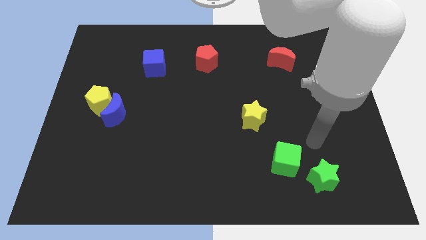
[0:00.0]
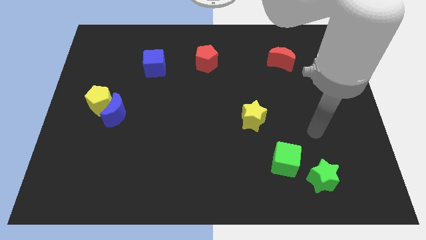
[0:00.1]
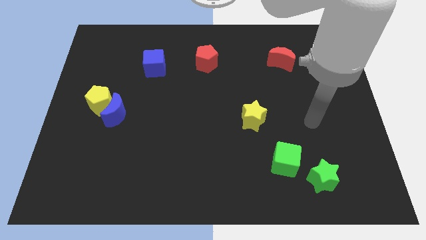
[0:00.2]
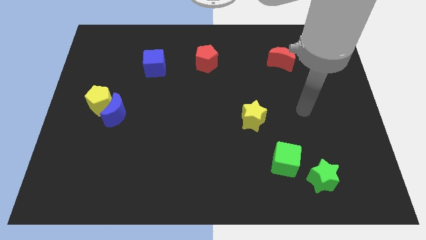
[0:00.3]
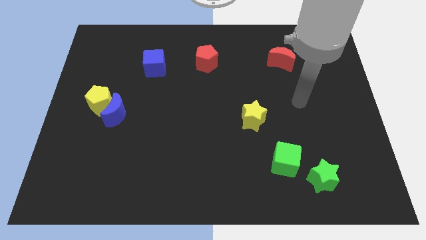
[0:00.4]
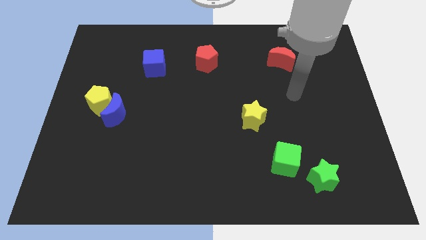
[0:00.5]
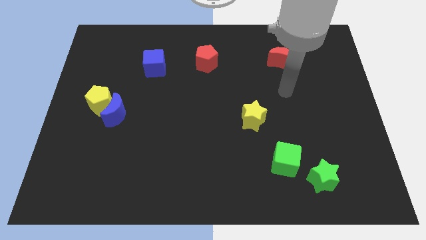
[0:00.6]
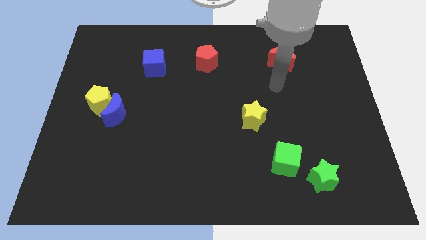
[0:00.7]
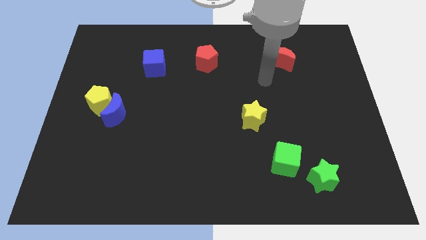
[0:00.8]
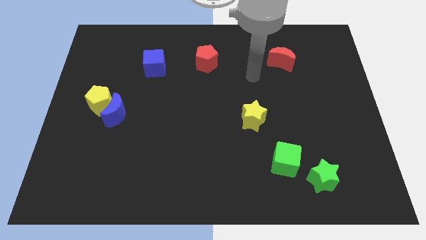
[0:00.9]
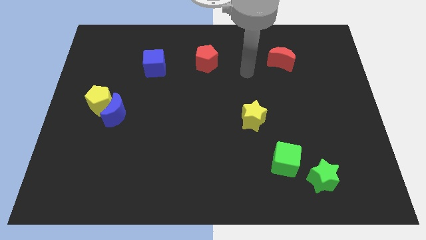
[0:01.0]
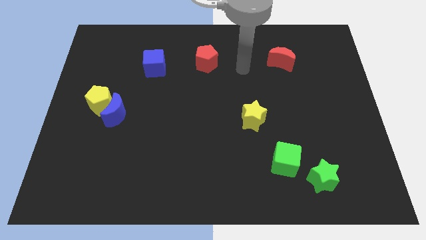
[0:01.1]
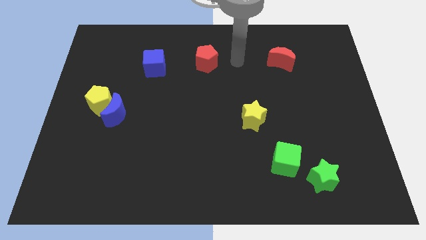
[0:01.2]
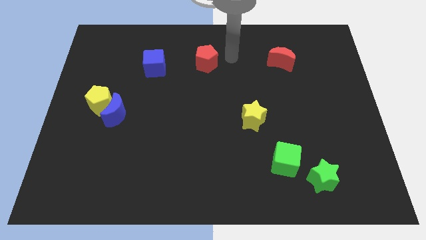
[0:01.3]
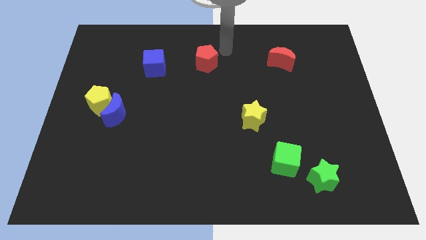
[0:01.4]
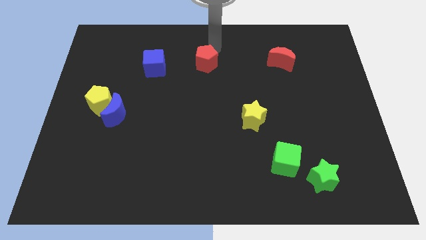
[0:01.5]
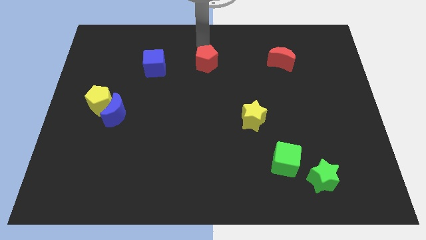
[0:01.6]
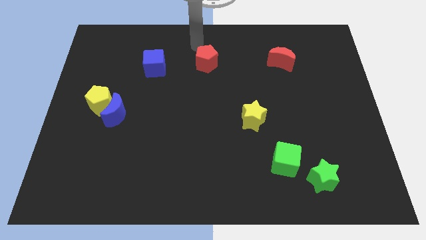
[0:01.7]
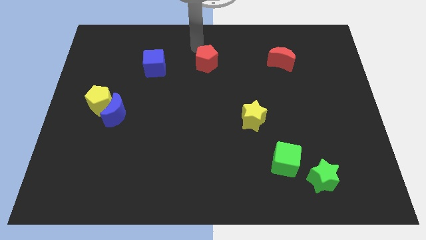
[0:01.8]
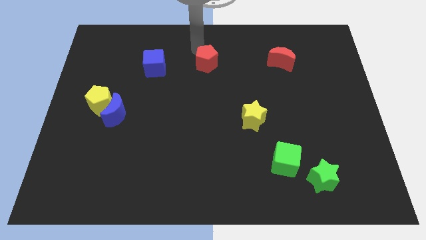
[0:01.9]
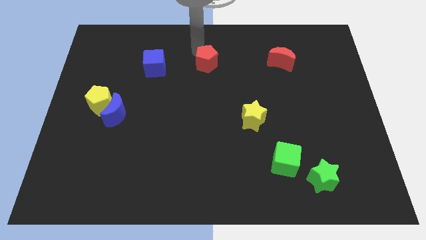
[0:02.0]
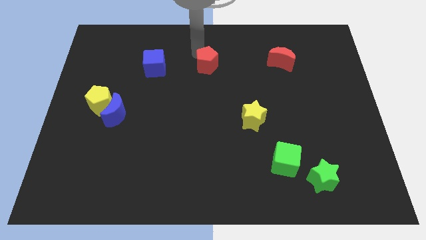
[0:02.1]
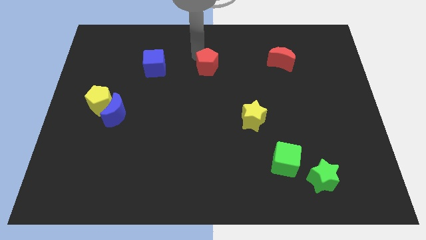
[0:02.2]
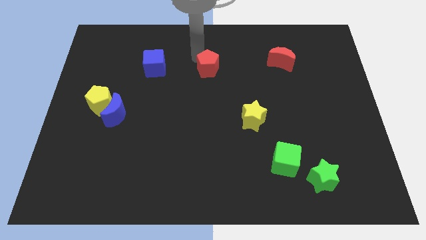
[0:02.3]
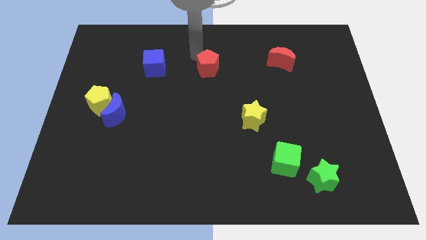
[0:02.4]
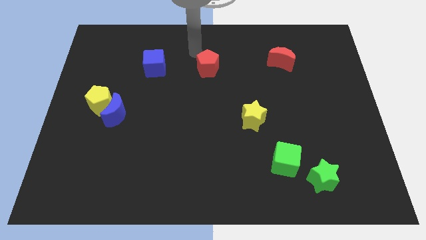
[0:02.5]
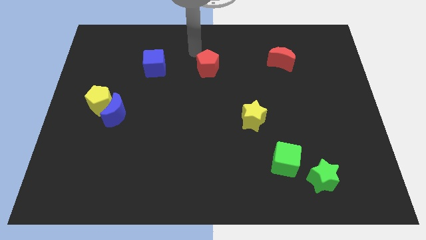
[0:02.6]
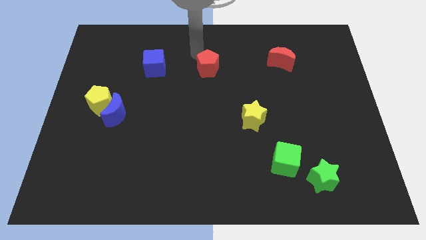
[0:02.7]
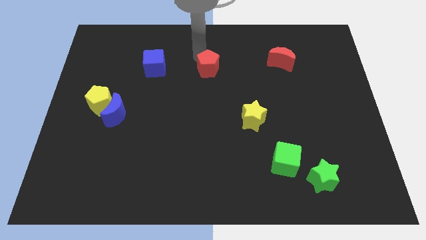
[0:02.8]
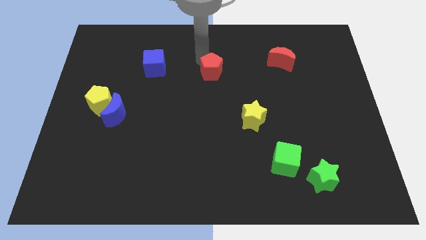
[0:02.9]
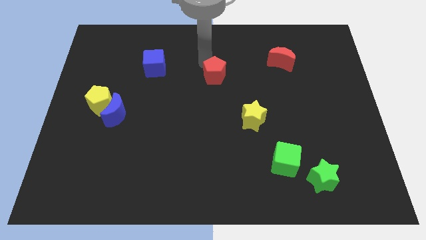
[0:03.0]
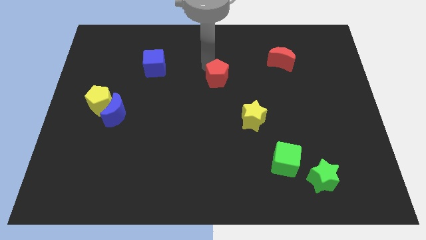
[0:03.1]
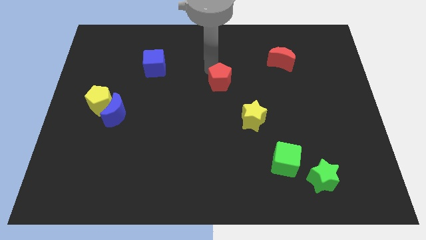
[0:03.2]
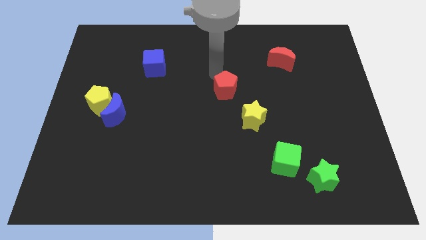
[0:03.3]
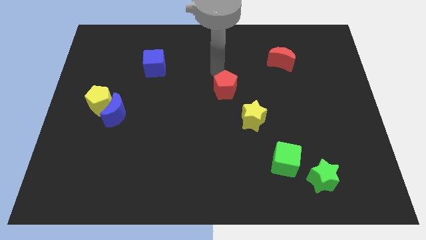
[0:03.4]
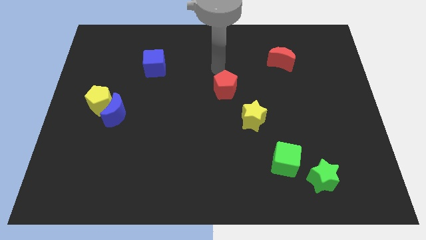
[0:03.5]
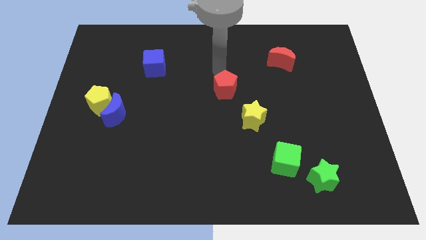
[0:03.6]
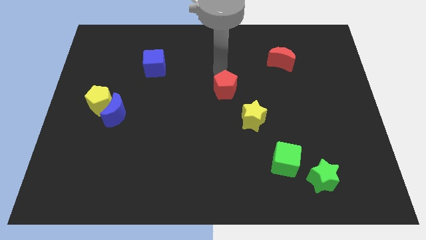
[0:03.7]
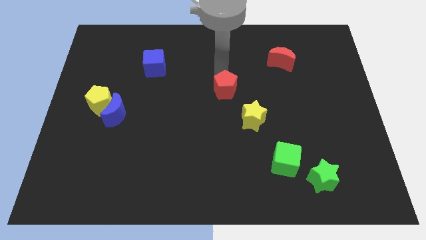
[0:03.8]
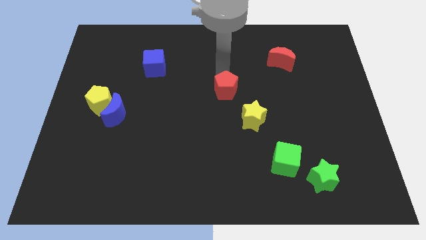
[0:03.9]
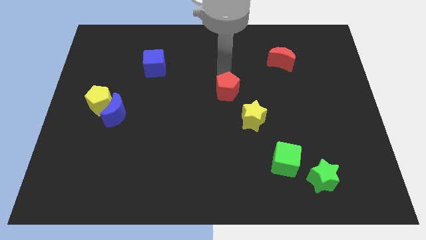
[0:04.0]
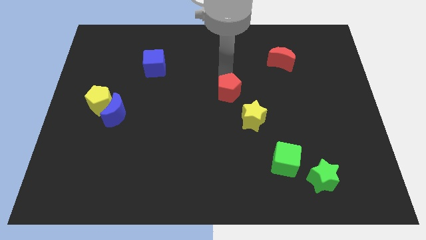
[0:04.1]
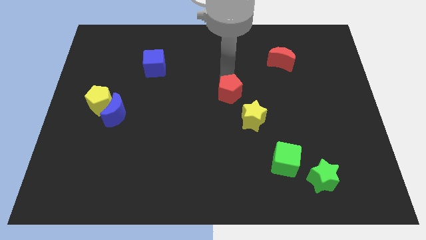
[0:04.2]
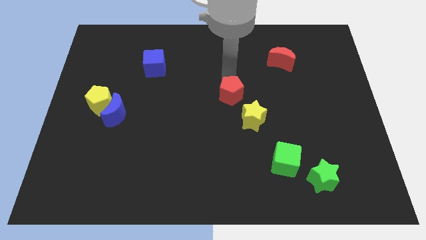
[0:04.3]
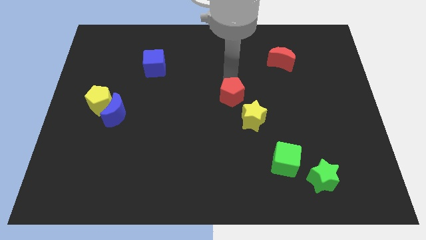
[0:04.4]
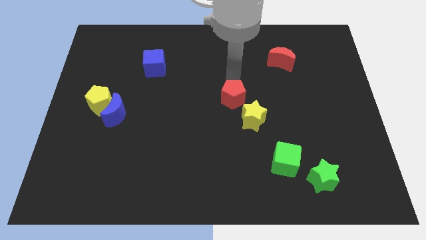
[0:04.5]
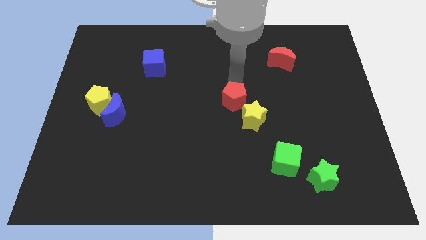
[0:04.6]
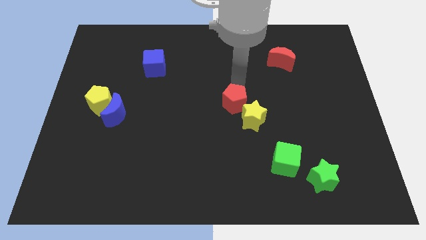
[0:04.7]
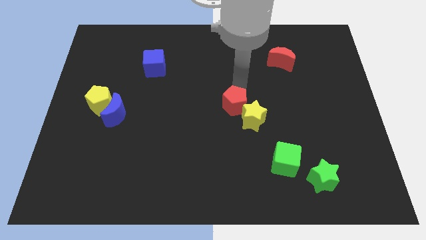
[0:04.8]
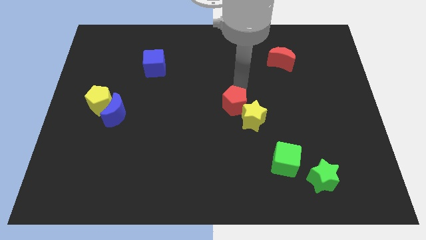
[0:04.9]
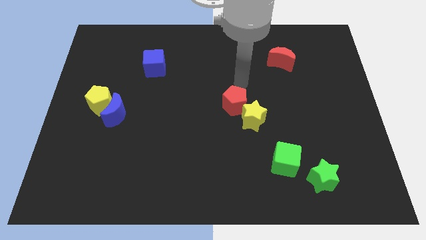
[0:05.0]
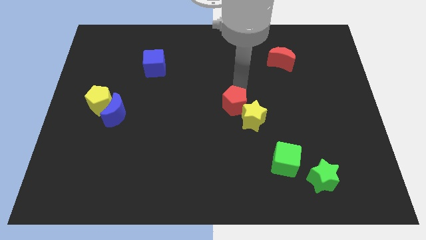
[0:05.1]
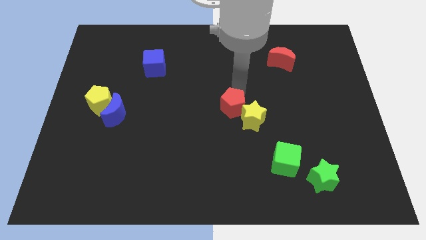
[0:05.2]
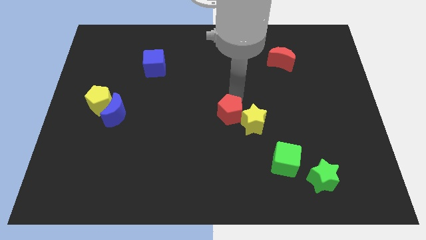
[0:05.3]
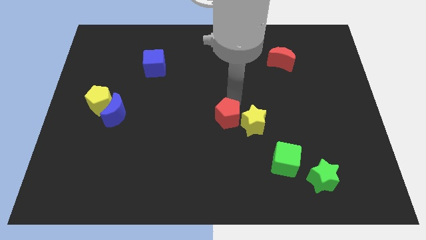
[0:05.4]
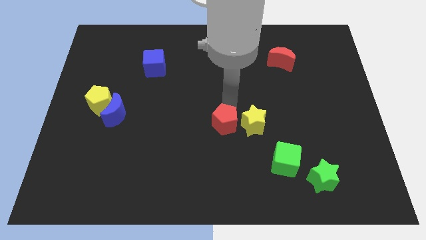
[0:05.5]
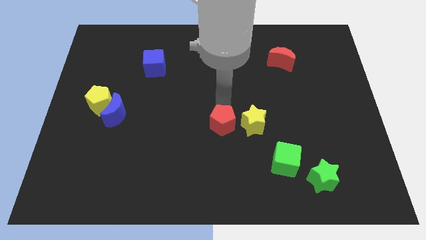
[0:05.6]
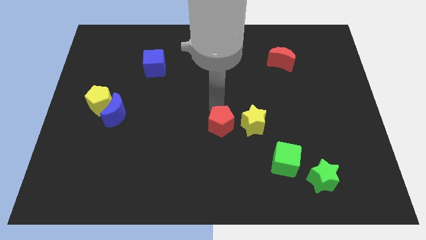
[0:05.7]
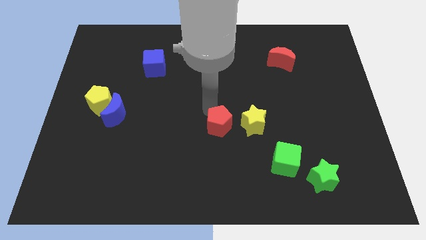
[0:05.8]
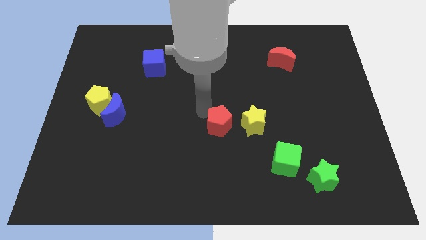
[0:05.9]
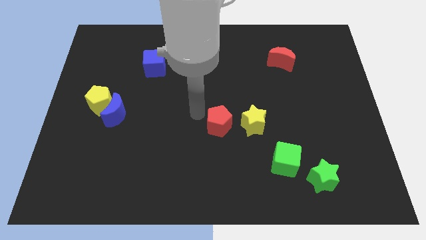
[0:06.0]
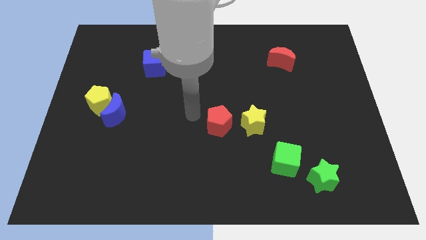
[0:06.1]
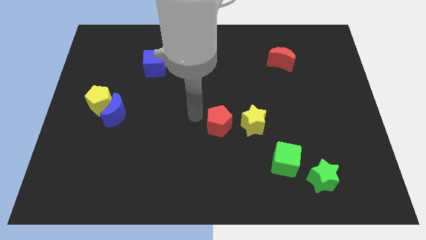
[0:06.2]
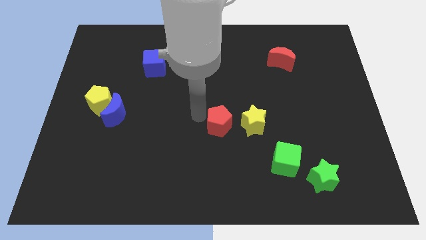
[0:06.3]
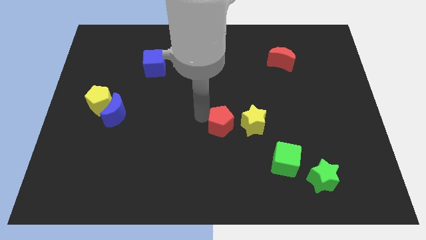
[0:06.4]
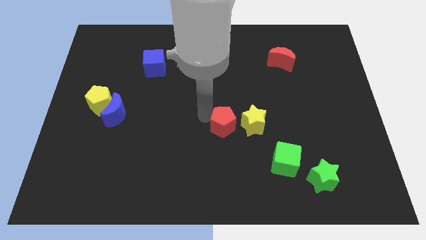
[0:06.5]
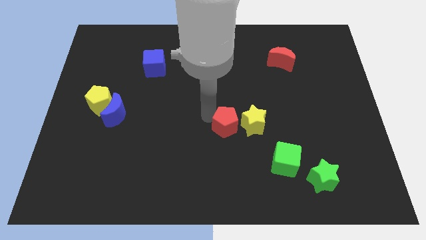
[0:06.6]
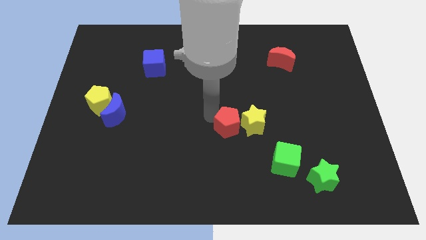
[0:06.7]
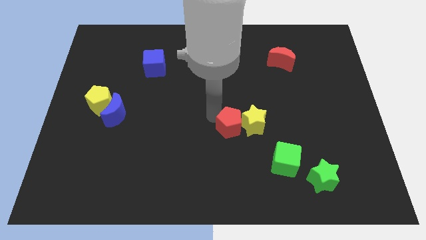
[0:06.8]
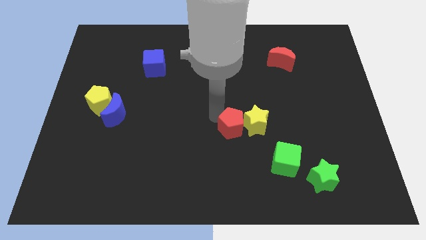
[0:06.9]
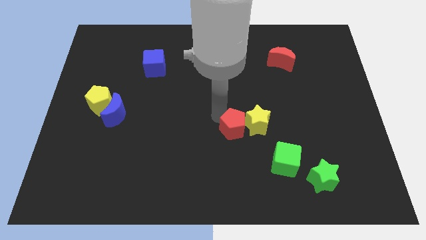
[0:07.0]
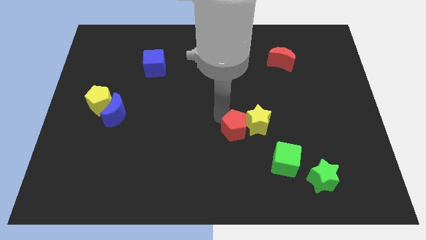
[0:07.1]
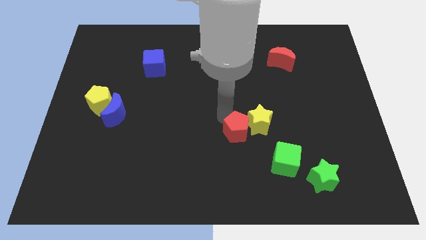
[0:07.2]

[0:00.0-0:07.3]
move the red pentagon to the top left side of the green cube
